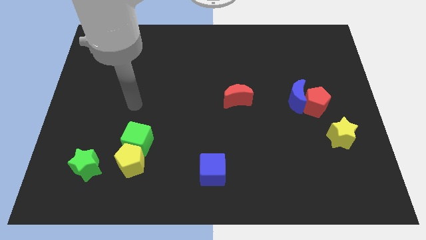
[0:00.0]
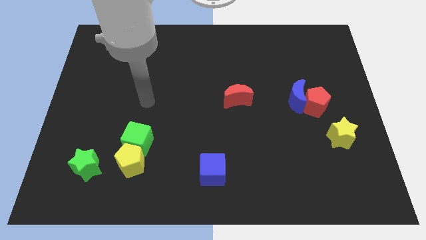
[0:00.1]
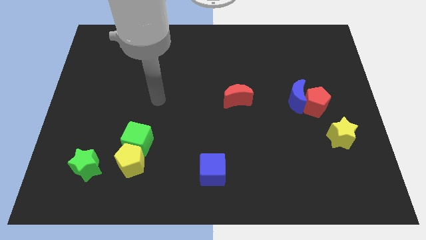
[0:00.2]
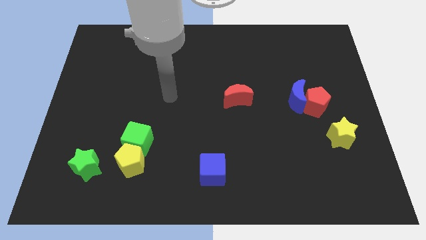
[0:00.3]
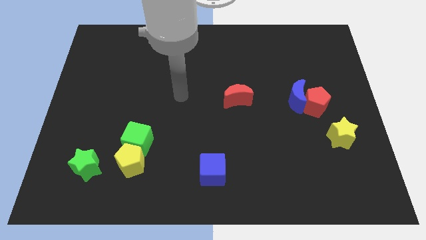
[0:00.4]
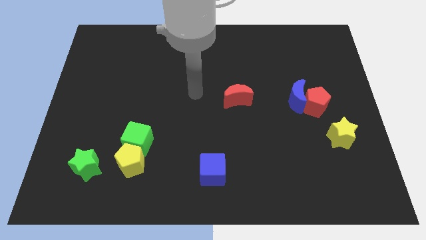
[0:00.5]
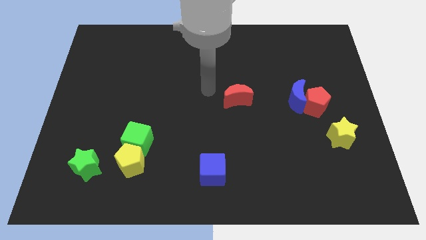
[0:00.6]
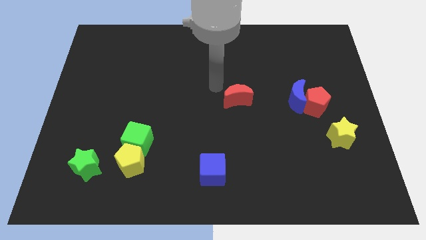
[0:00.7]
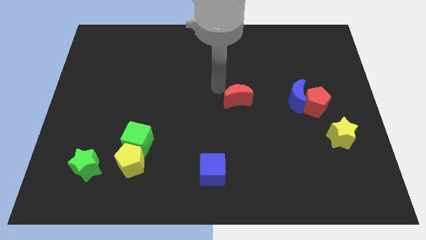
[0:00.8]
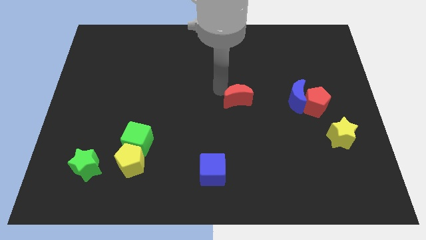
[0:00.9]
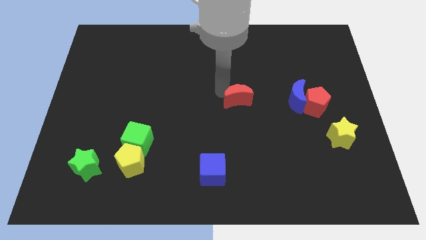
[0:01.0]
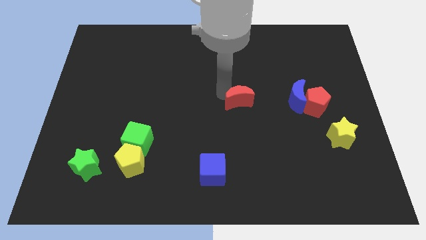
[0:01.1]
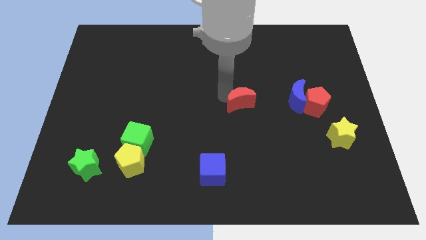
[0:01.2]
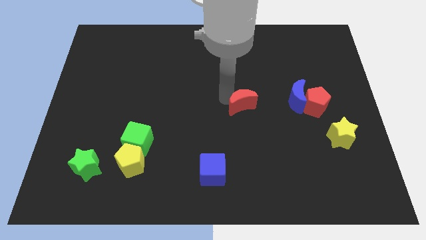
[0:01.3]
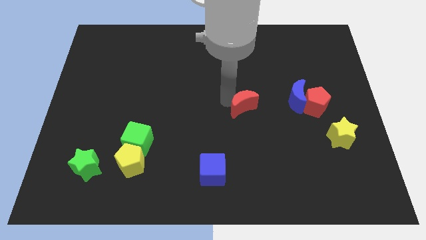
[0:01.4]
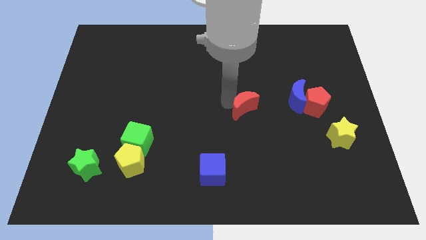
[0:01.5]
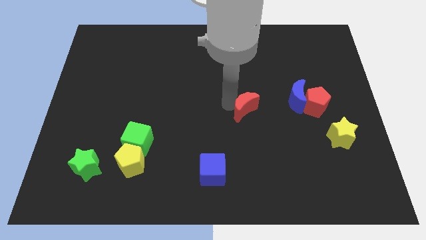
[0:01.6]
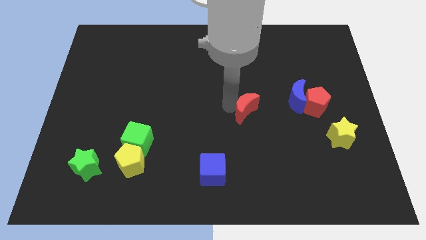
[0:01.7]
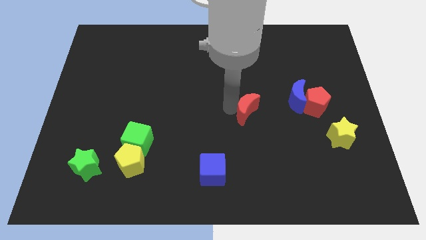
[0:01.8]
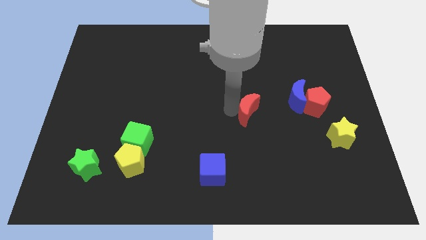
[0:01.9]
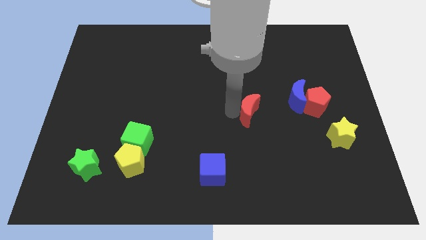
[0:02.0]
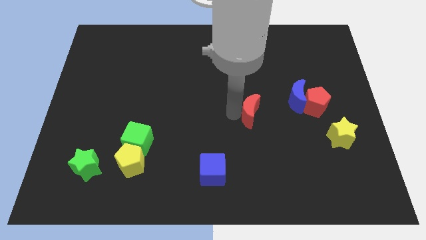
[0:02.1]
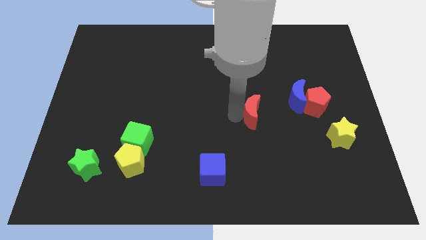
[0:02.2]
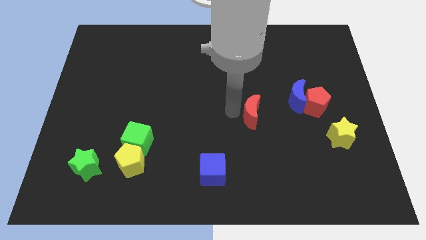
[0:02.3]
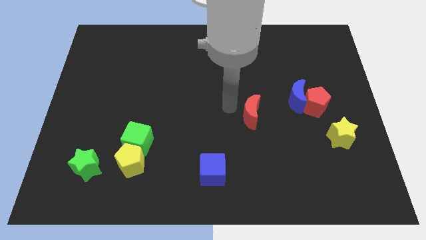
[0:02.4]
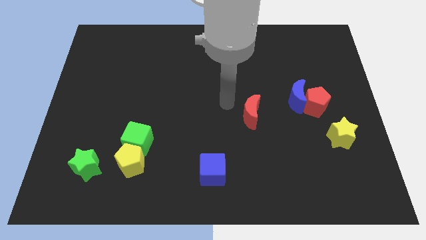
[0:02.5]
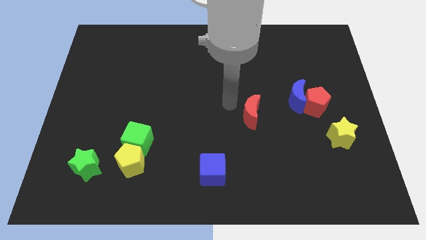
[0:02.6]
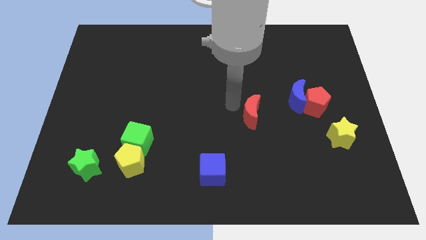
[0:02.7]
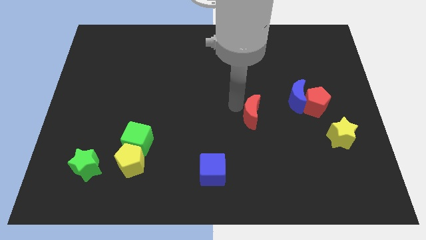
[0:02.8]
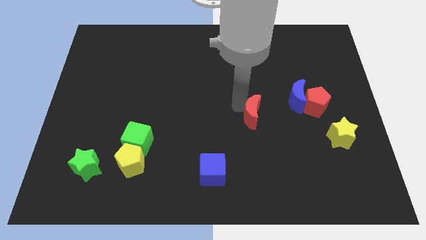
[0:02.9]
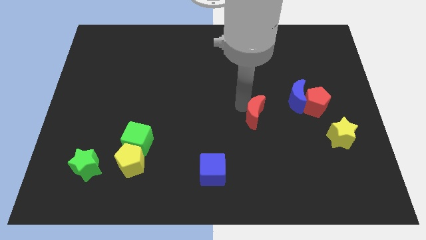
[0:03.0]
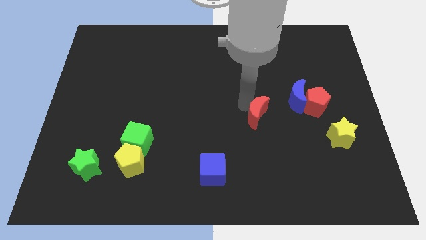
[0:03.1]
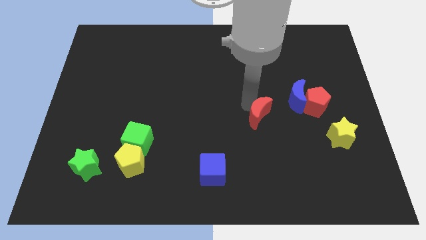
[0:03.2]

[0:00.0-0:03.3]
slide the red moon down and right diagonally a little

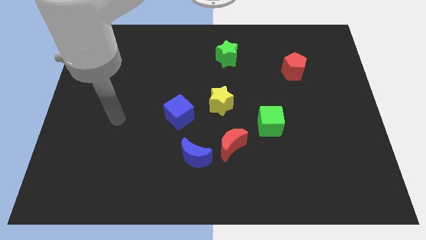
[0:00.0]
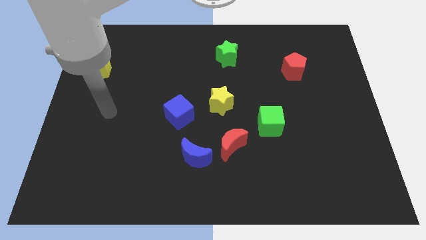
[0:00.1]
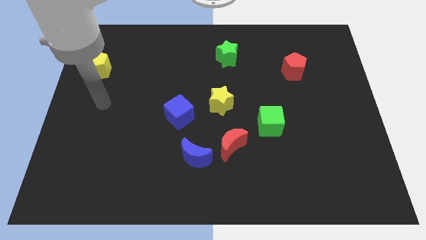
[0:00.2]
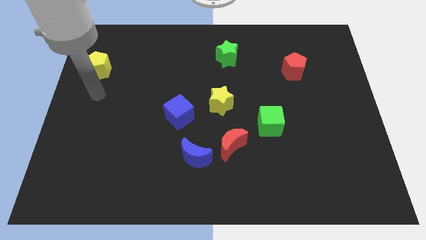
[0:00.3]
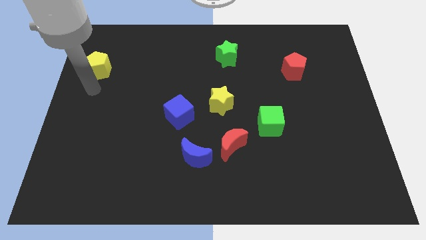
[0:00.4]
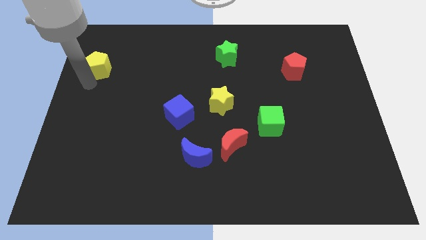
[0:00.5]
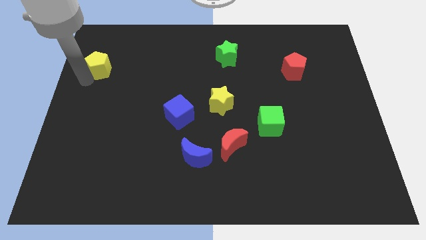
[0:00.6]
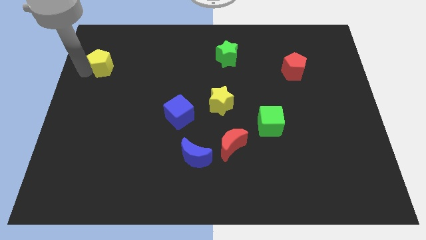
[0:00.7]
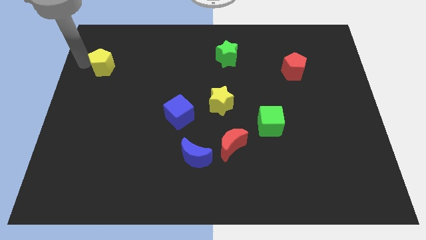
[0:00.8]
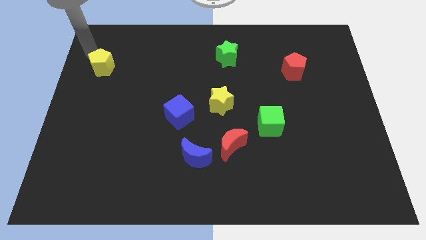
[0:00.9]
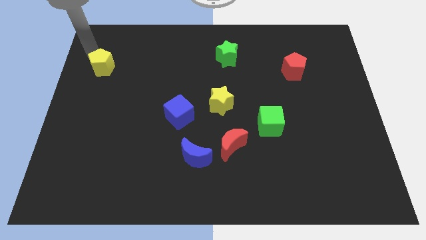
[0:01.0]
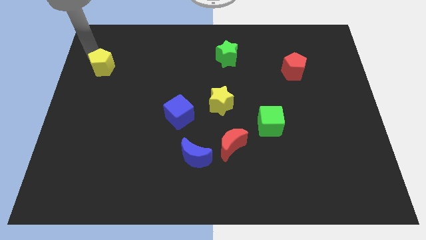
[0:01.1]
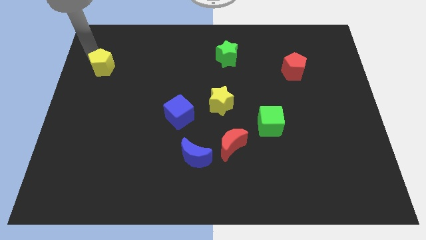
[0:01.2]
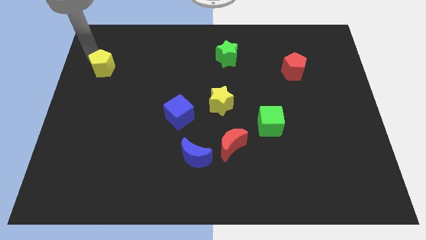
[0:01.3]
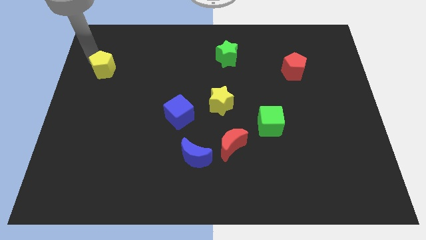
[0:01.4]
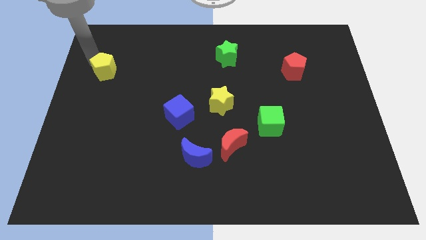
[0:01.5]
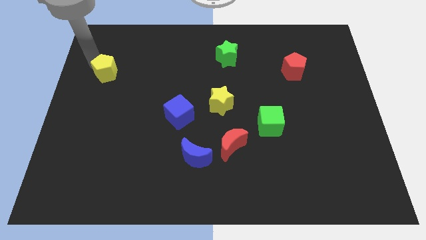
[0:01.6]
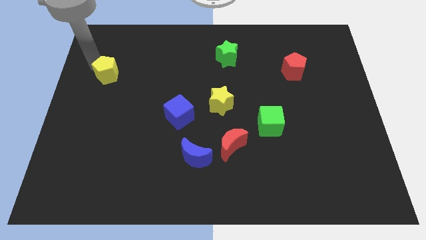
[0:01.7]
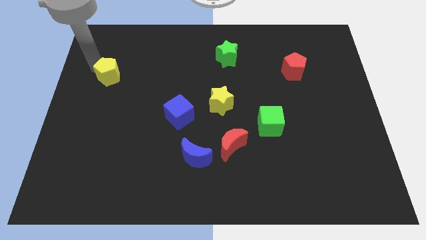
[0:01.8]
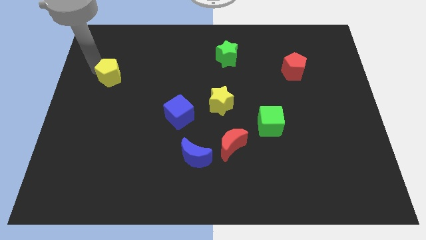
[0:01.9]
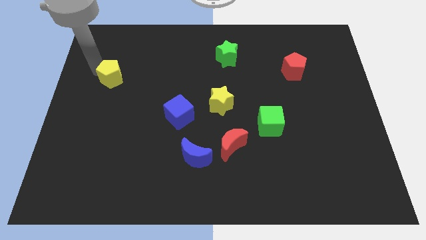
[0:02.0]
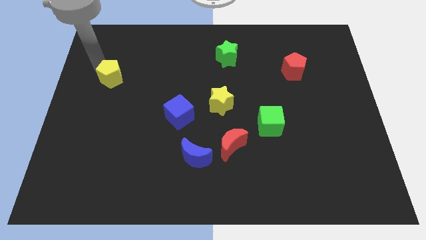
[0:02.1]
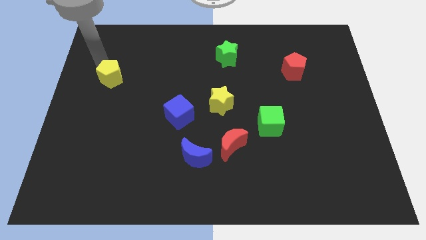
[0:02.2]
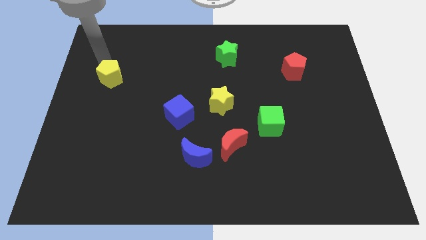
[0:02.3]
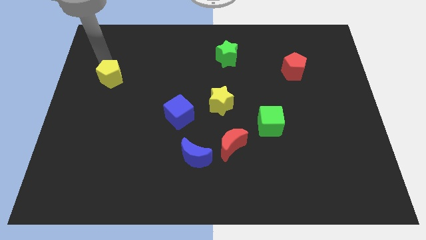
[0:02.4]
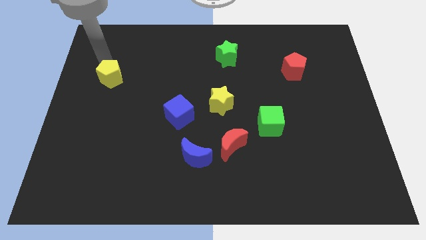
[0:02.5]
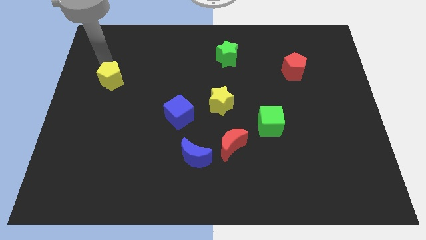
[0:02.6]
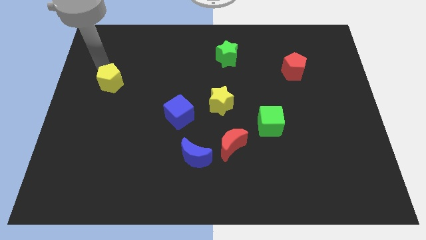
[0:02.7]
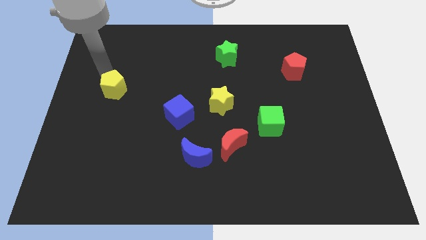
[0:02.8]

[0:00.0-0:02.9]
move the yellow pentagon diagonally down and right a little

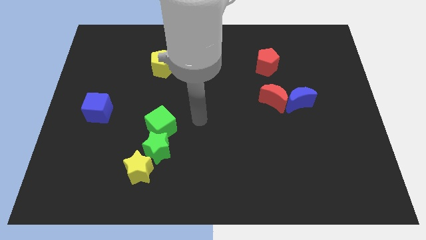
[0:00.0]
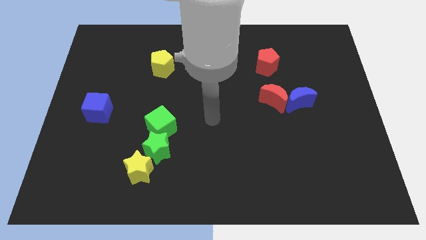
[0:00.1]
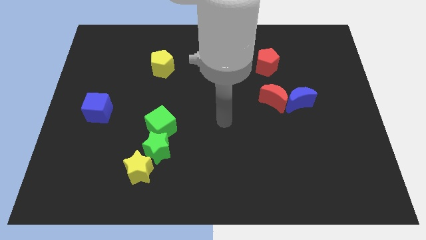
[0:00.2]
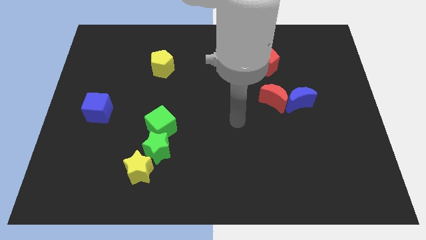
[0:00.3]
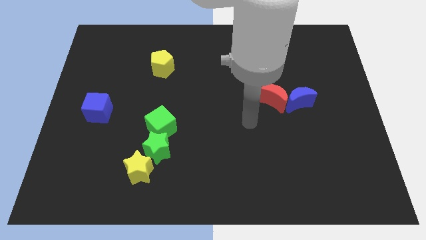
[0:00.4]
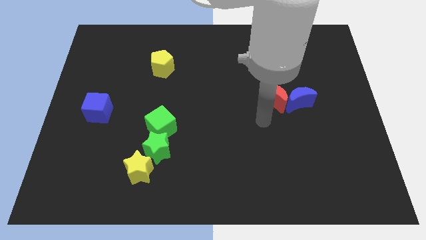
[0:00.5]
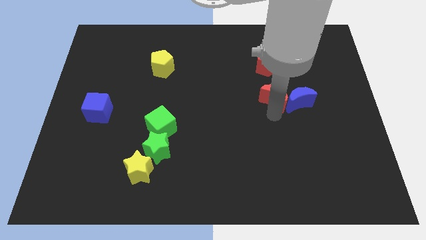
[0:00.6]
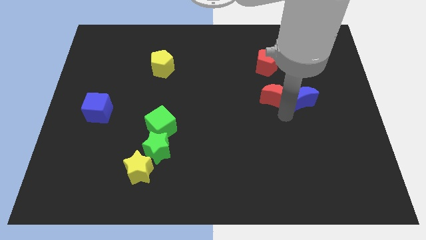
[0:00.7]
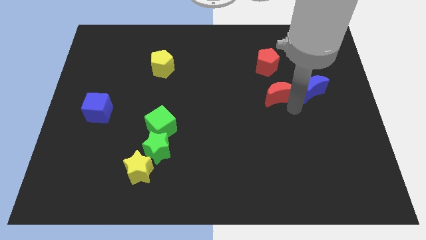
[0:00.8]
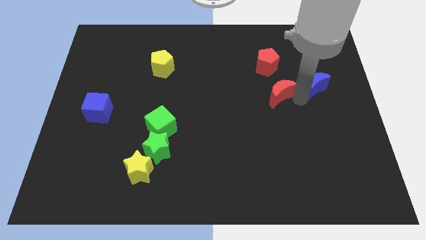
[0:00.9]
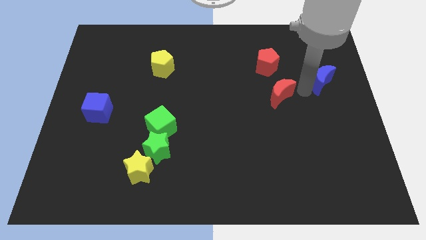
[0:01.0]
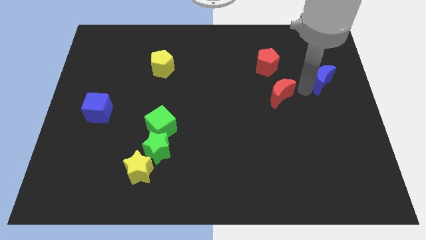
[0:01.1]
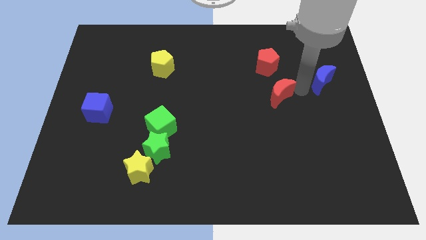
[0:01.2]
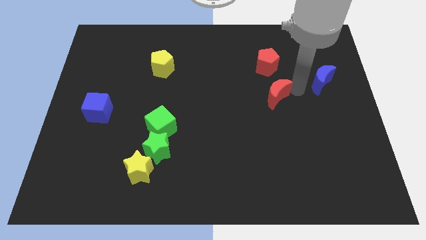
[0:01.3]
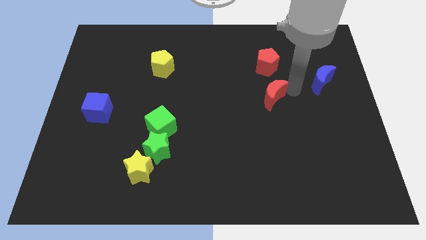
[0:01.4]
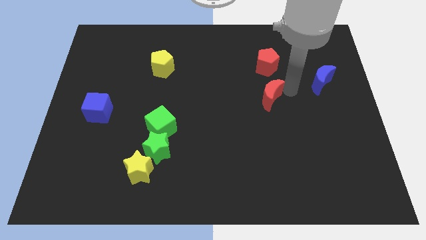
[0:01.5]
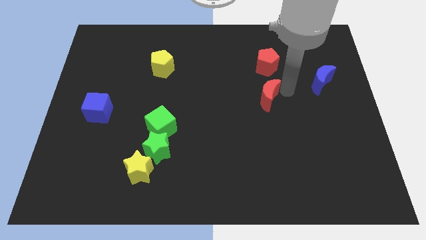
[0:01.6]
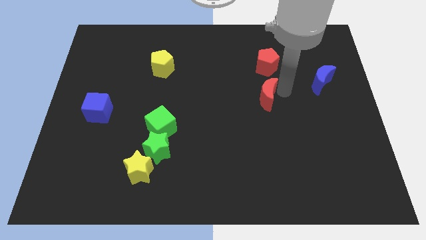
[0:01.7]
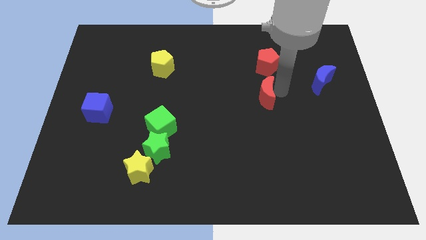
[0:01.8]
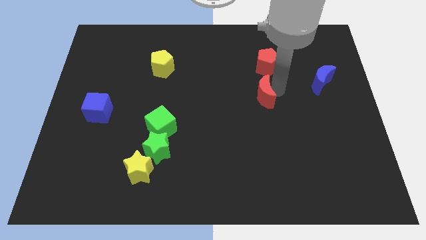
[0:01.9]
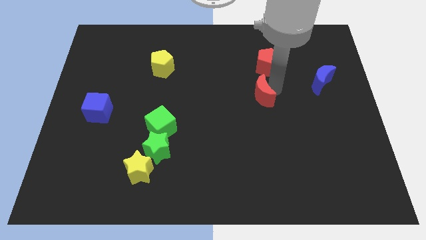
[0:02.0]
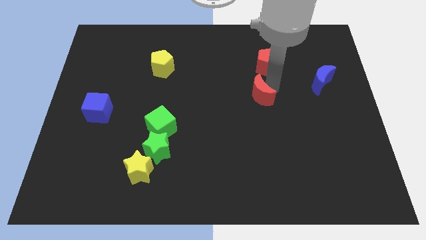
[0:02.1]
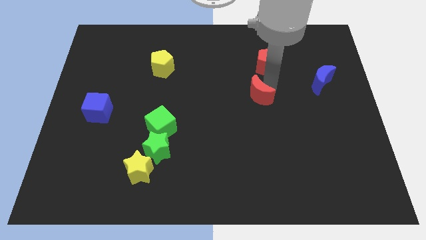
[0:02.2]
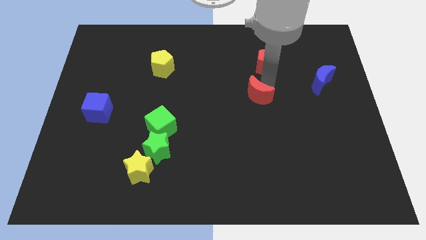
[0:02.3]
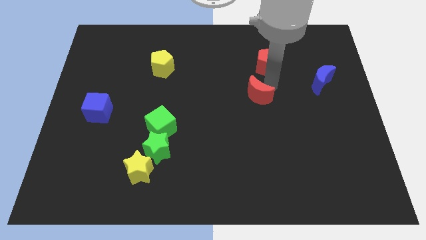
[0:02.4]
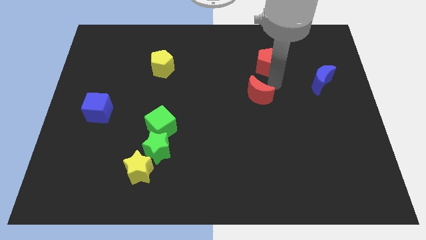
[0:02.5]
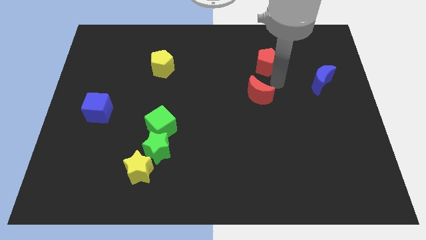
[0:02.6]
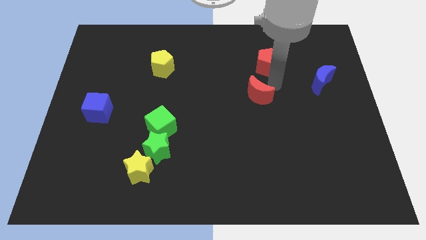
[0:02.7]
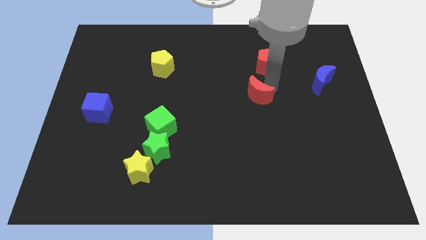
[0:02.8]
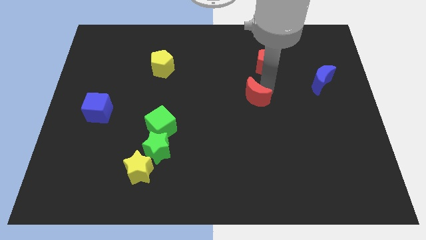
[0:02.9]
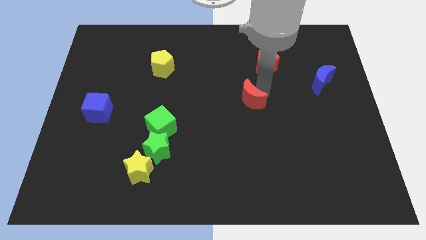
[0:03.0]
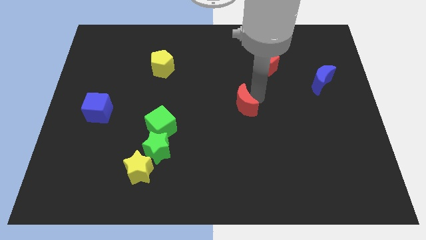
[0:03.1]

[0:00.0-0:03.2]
slide the red moon left a little
